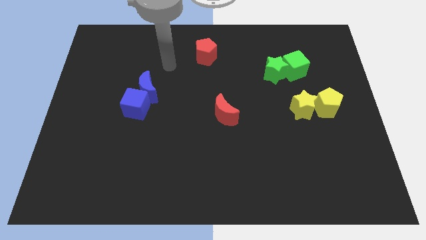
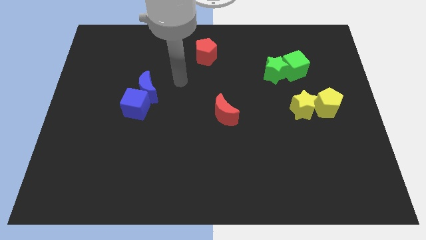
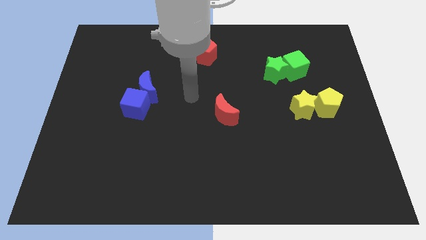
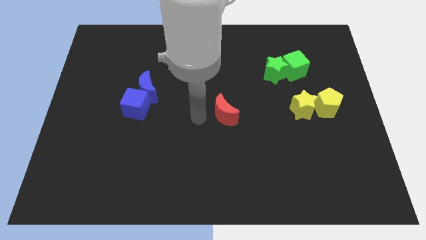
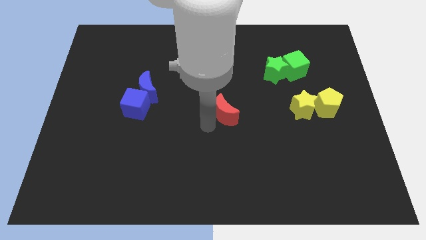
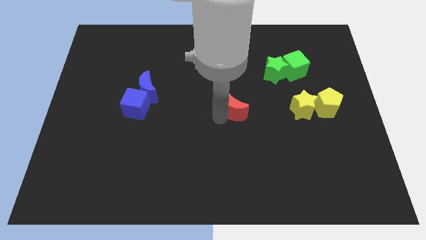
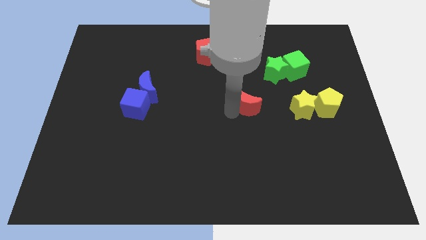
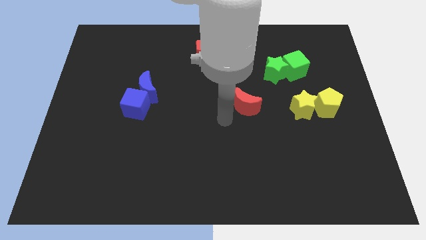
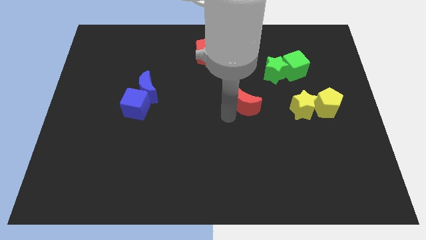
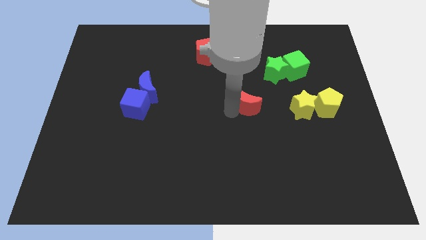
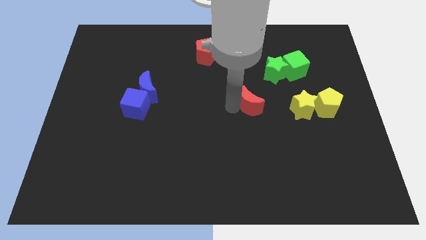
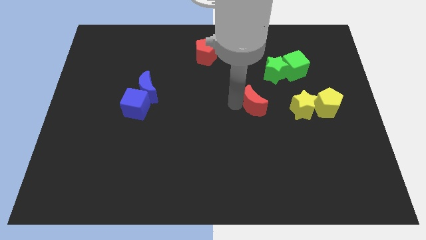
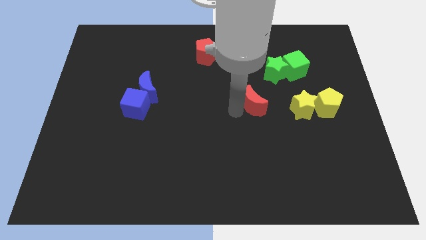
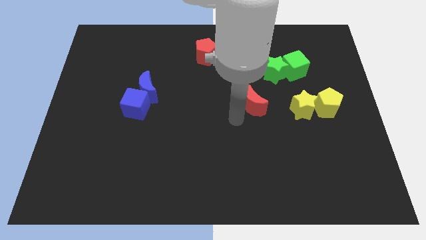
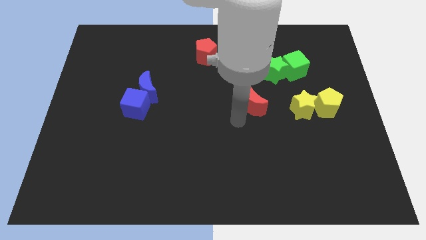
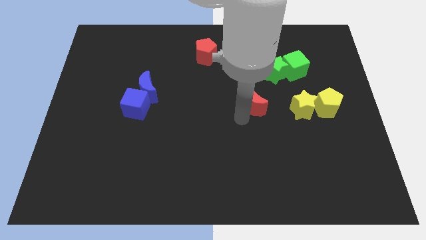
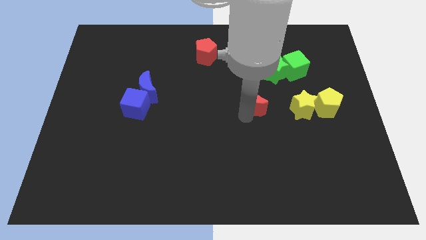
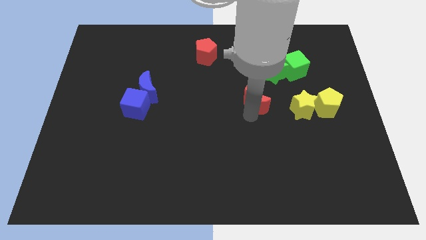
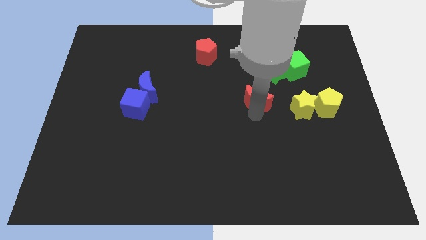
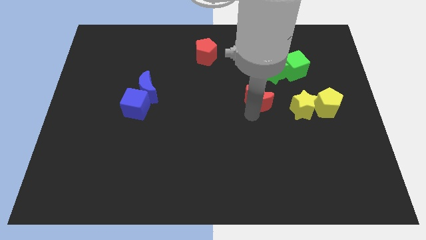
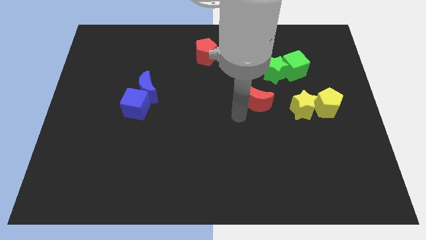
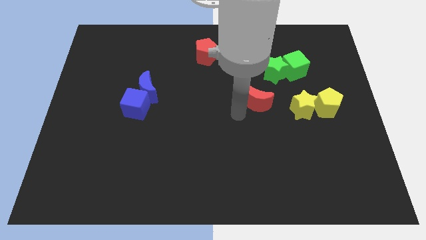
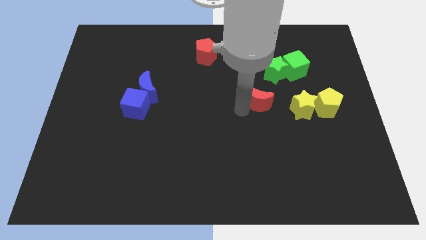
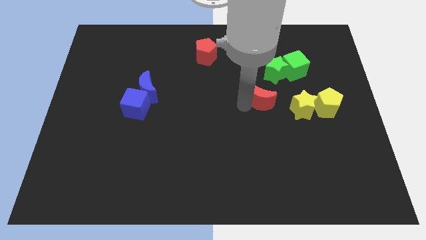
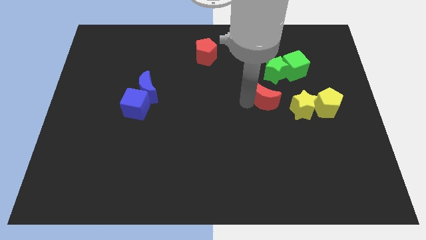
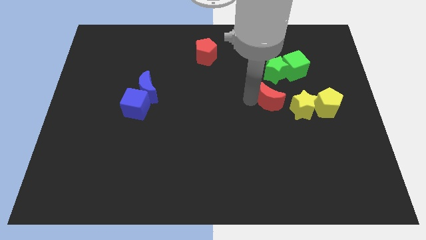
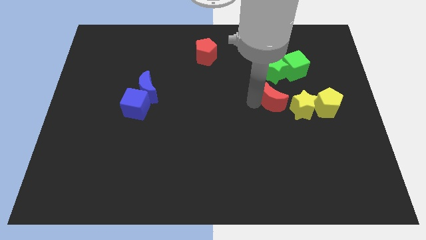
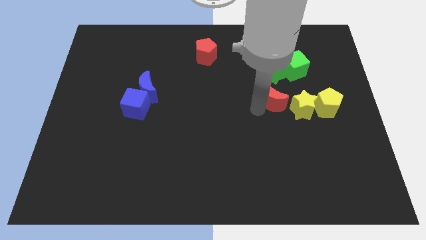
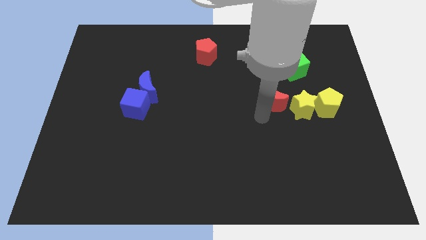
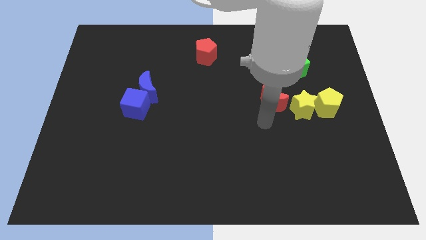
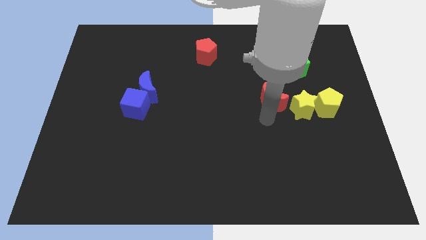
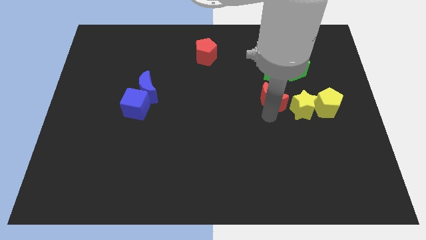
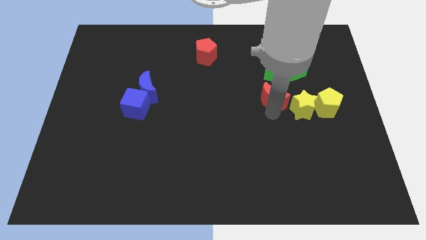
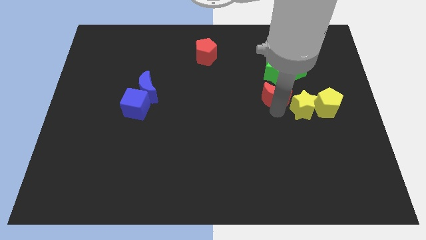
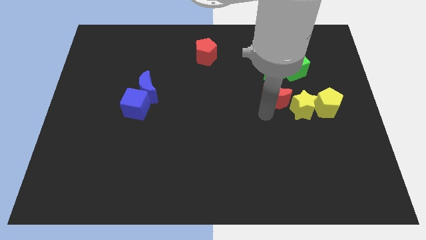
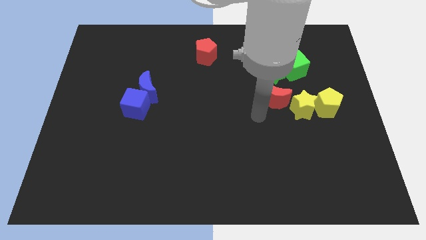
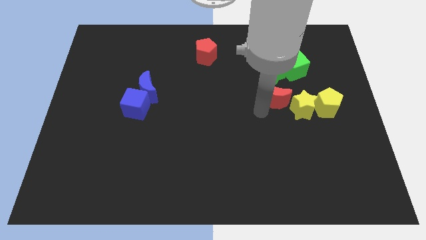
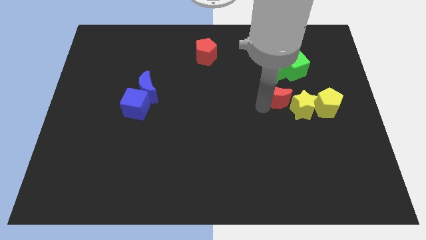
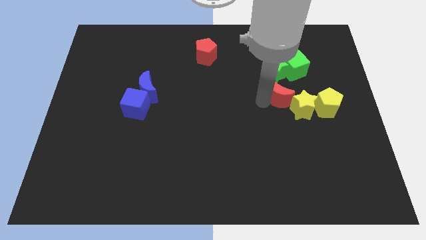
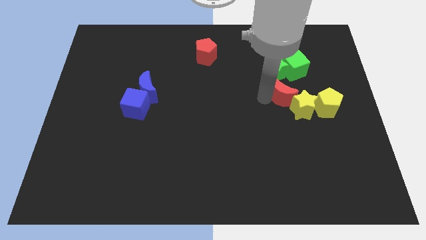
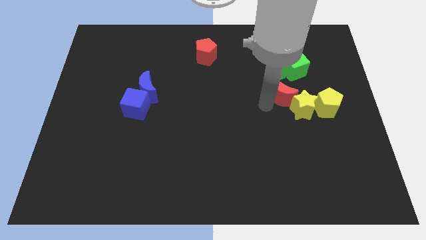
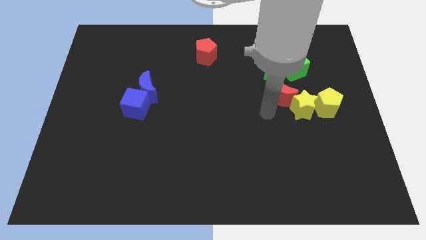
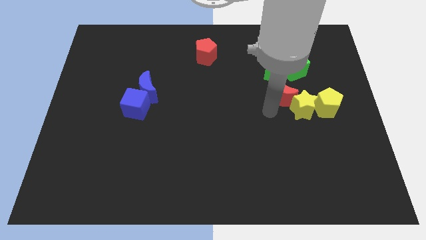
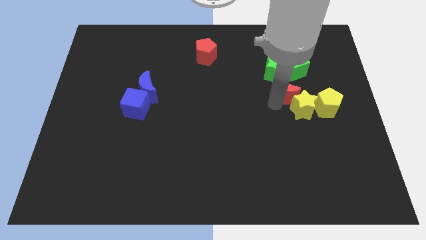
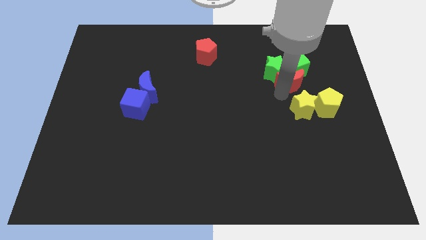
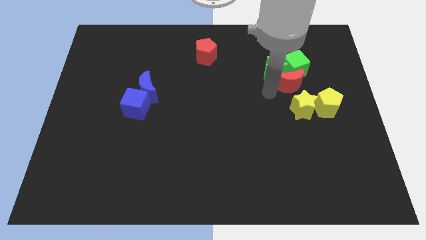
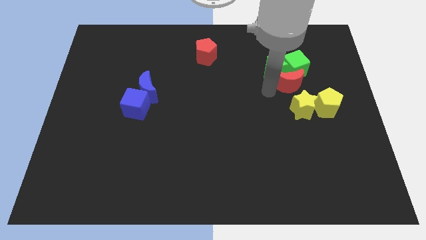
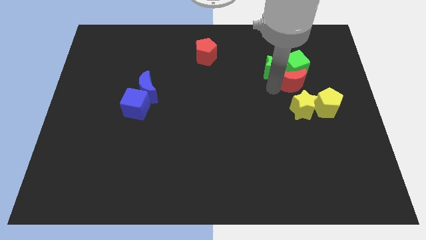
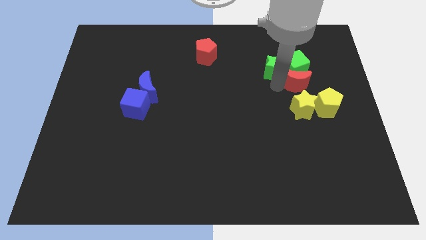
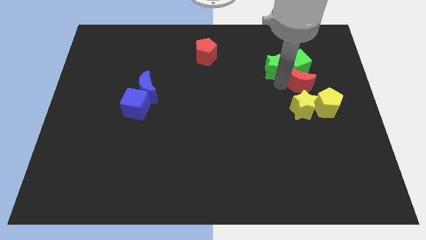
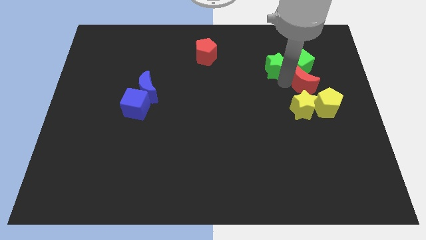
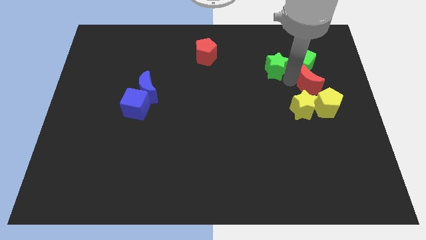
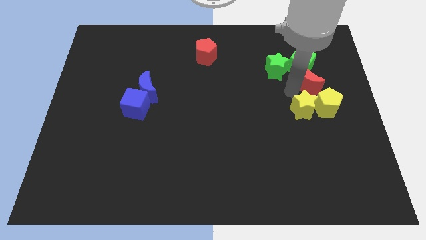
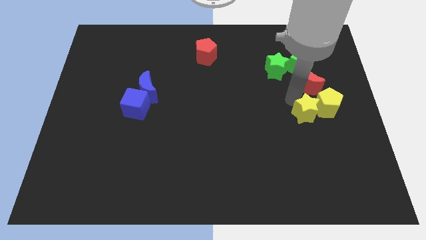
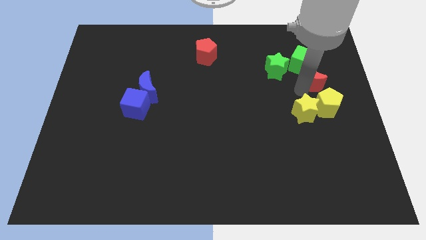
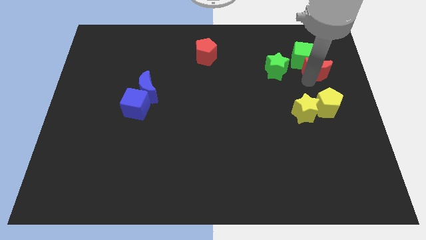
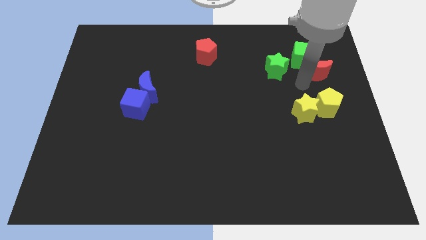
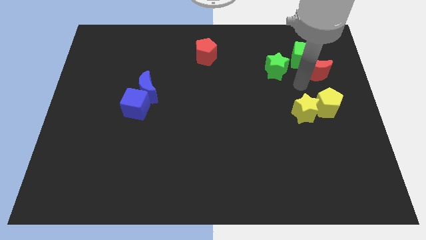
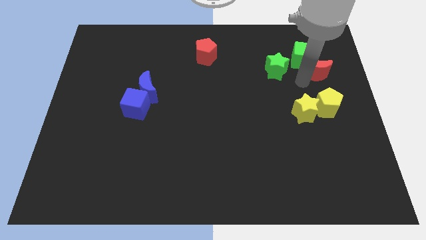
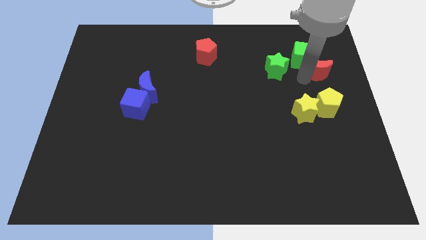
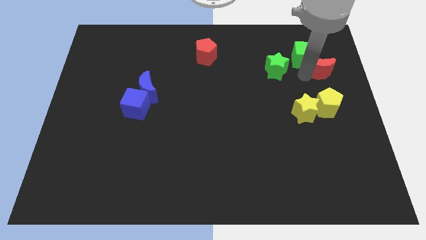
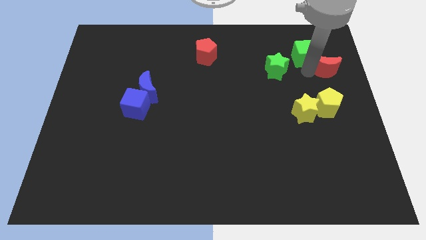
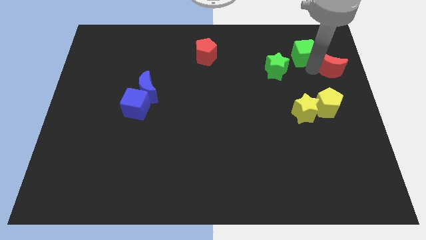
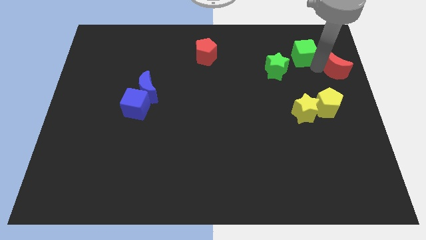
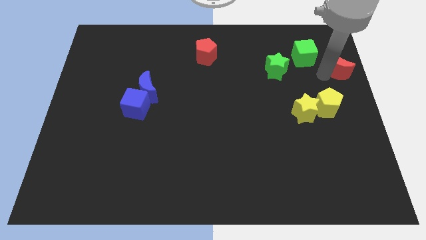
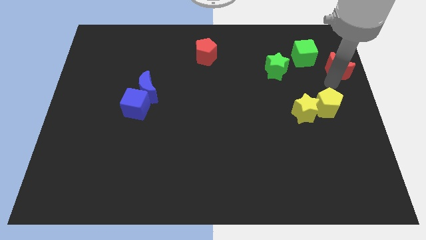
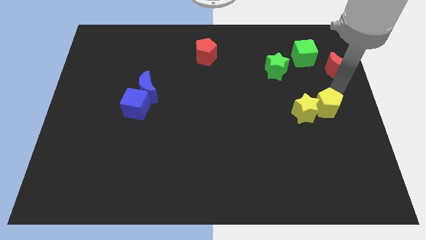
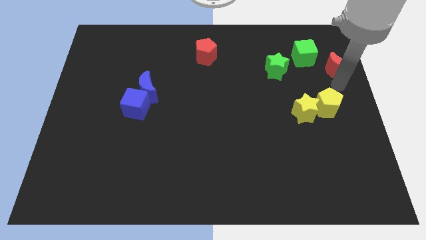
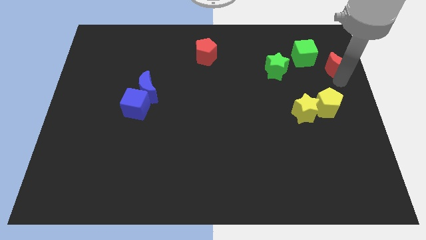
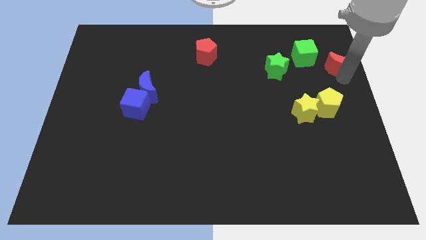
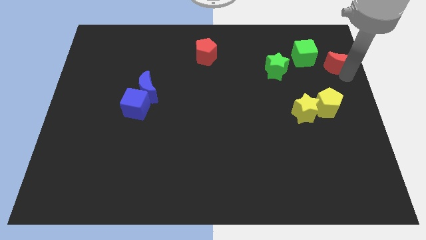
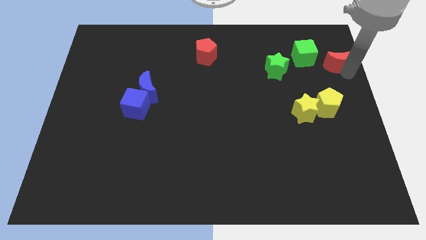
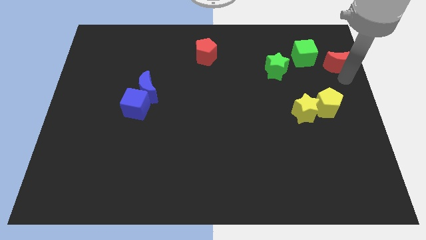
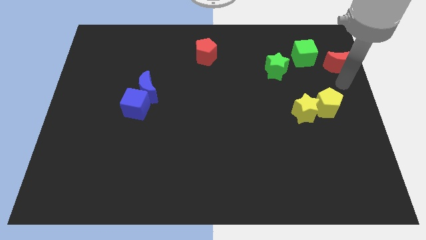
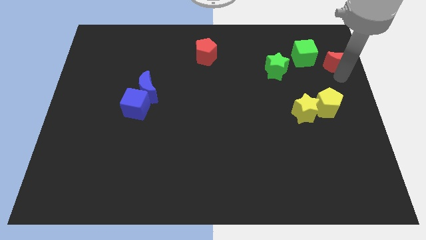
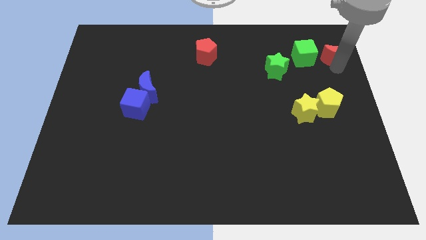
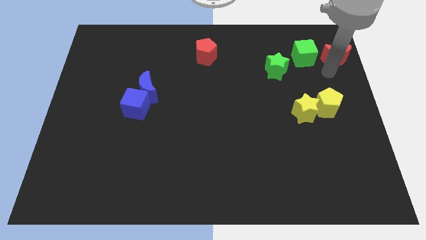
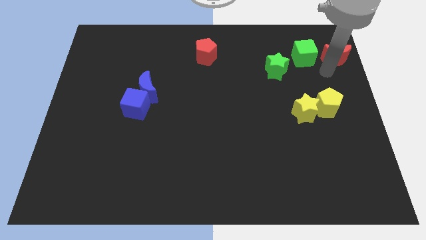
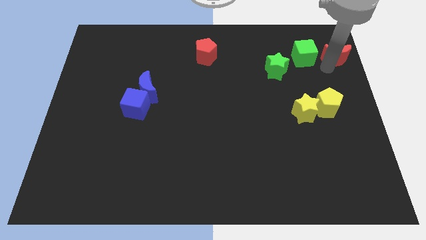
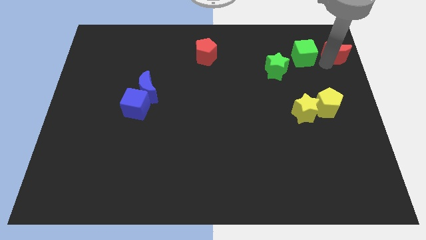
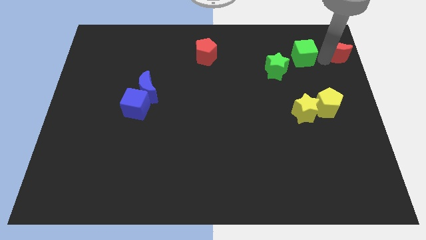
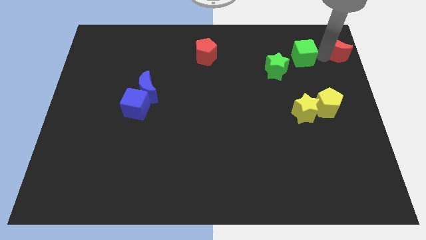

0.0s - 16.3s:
move the red moon to the upper right corner
